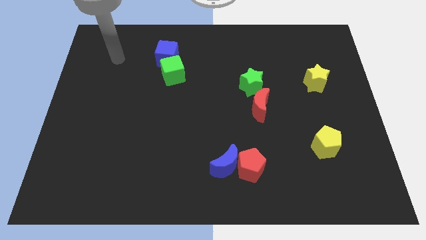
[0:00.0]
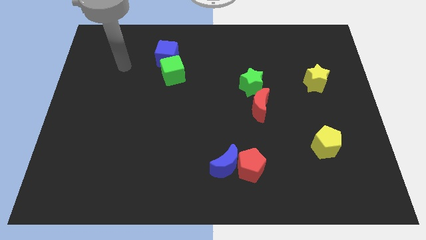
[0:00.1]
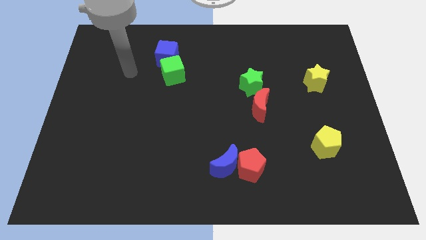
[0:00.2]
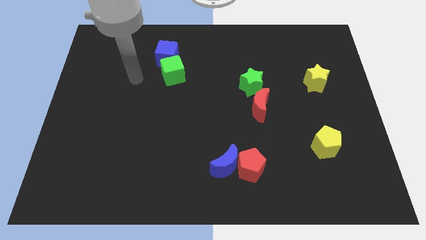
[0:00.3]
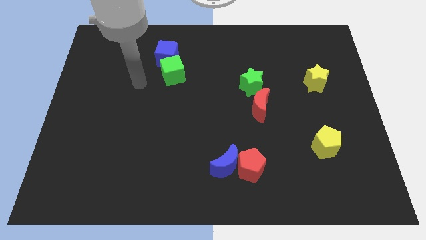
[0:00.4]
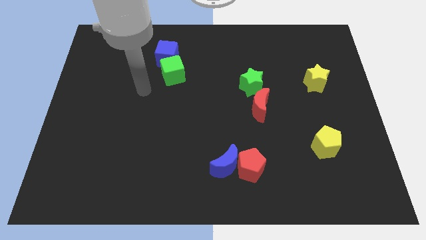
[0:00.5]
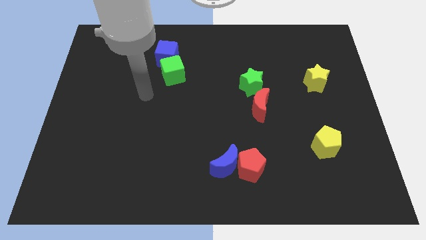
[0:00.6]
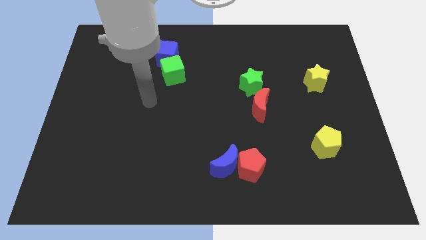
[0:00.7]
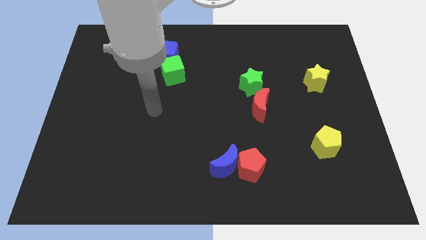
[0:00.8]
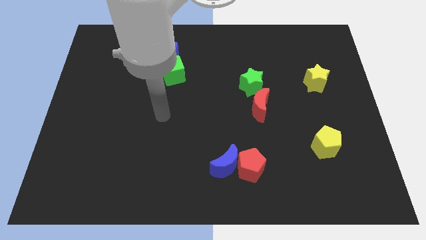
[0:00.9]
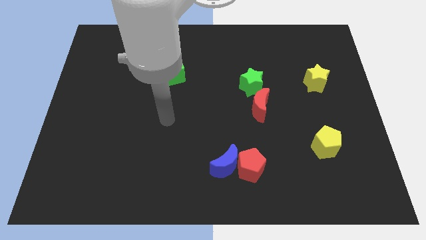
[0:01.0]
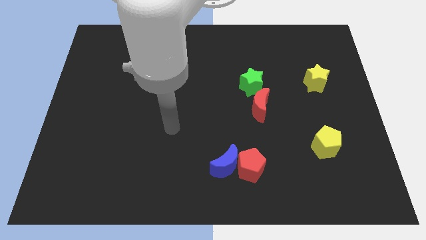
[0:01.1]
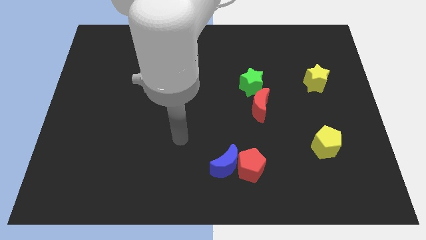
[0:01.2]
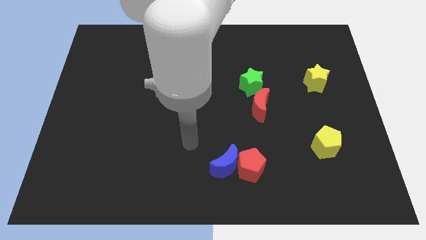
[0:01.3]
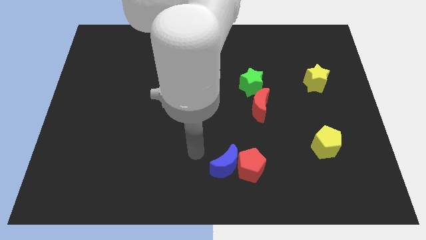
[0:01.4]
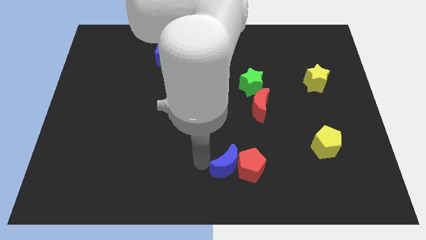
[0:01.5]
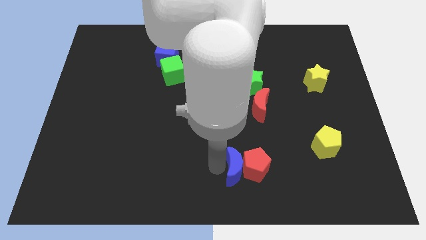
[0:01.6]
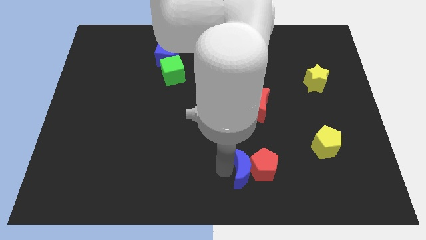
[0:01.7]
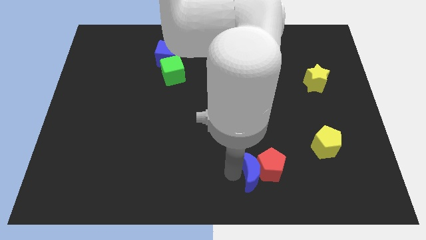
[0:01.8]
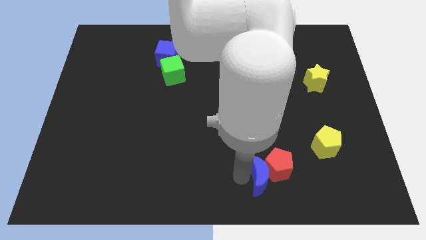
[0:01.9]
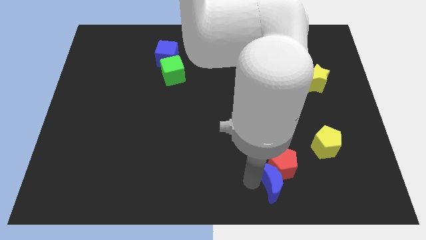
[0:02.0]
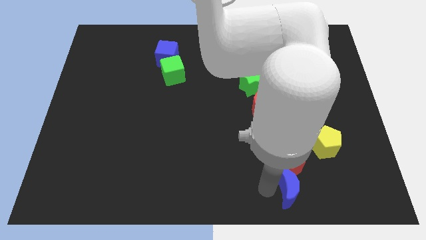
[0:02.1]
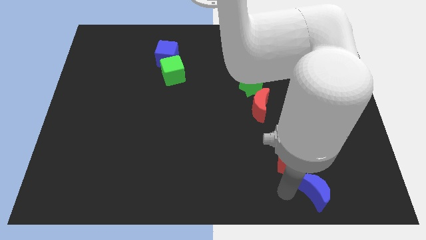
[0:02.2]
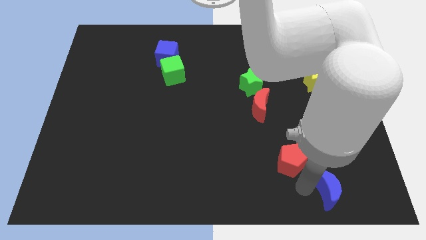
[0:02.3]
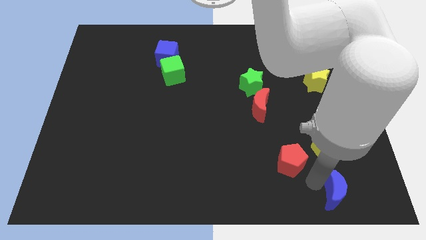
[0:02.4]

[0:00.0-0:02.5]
move the red pentagon away from the blue moon

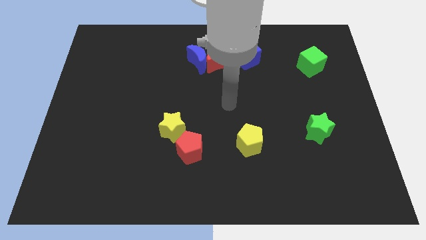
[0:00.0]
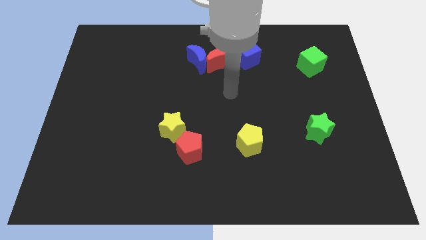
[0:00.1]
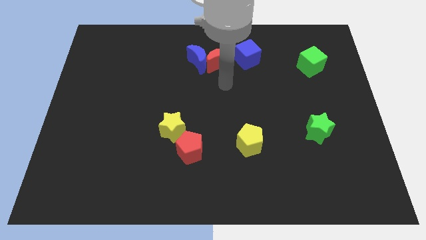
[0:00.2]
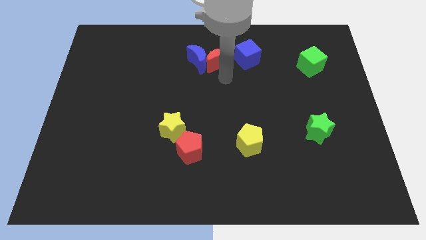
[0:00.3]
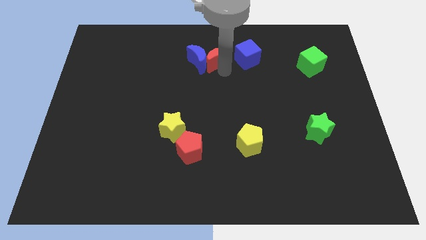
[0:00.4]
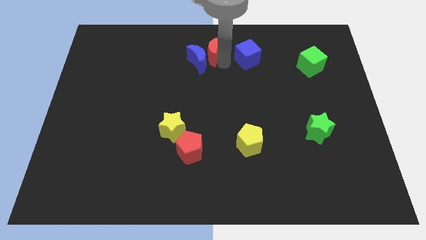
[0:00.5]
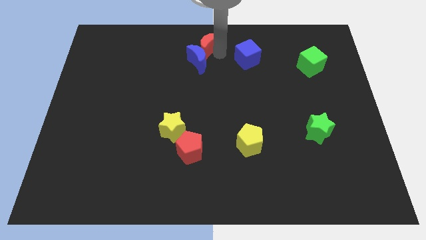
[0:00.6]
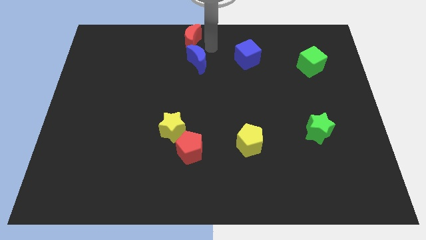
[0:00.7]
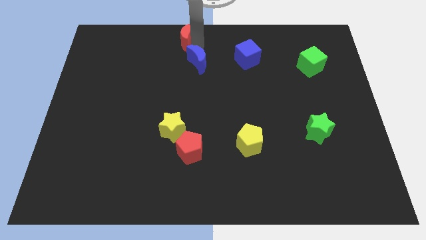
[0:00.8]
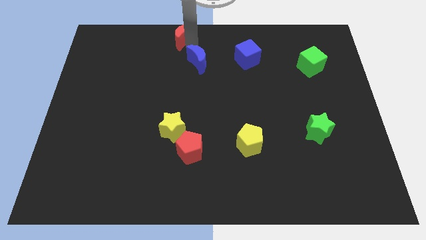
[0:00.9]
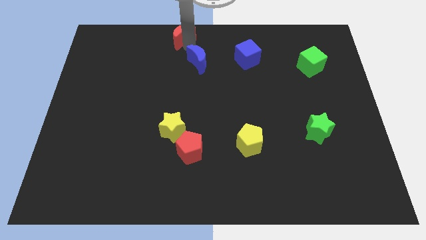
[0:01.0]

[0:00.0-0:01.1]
pull the blue moon apart from the red moon

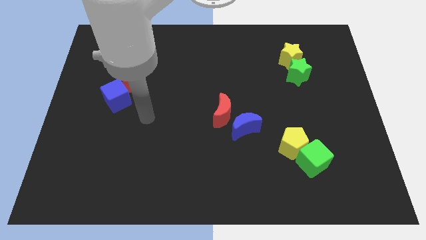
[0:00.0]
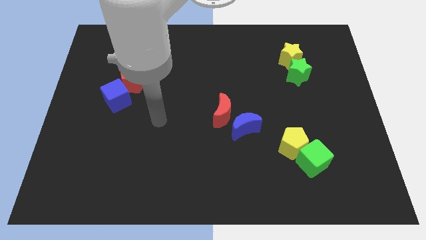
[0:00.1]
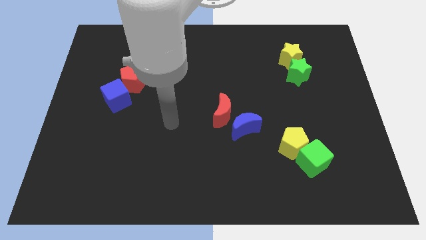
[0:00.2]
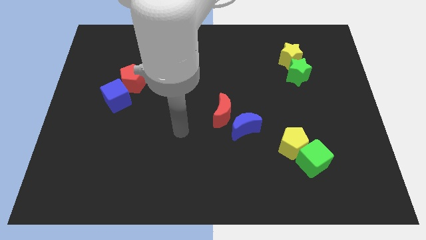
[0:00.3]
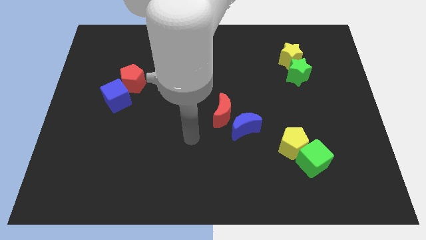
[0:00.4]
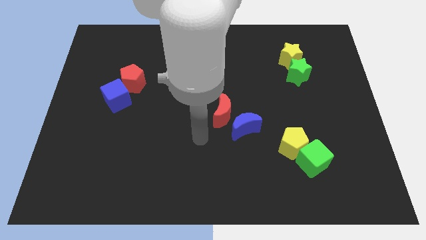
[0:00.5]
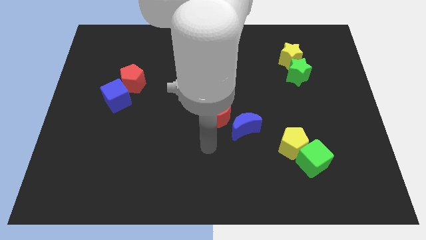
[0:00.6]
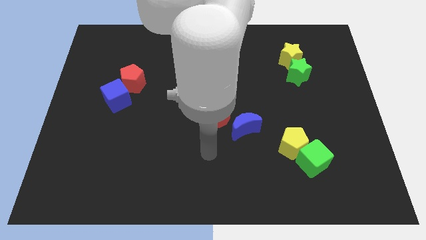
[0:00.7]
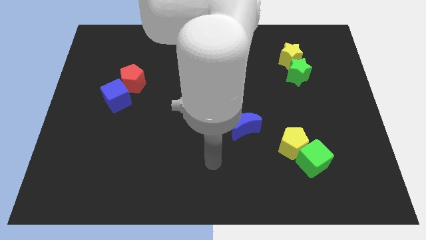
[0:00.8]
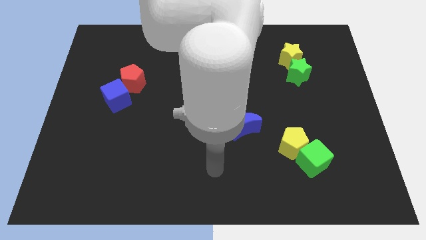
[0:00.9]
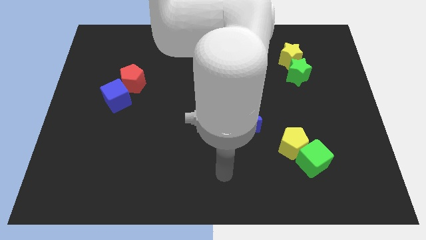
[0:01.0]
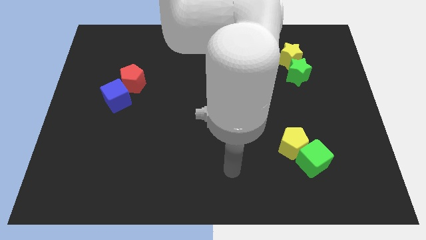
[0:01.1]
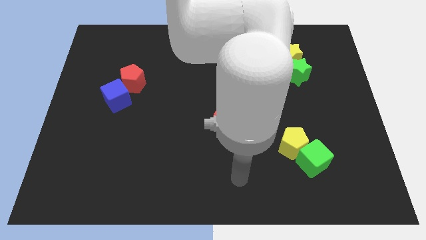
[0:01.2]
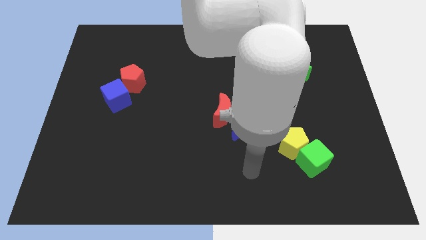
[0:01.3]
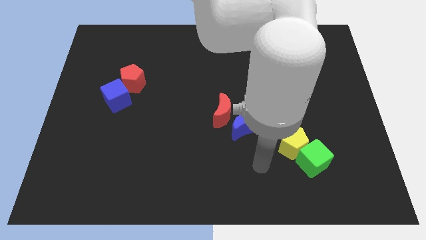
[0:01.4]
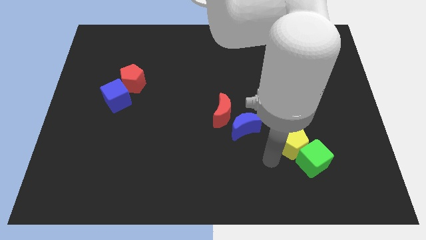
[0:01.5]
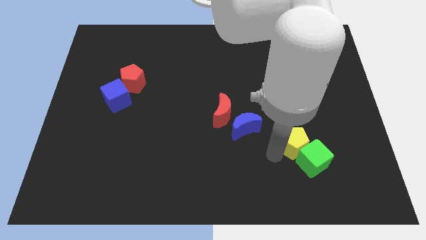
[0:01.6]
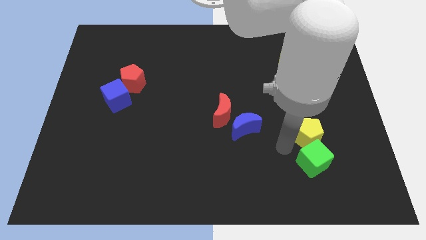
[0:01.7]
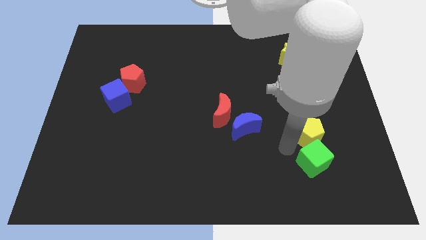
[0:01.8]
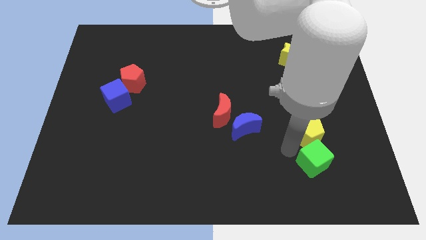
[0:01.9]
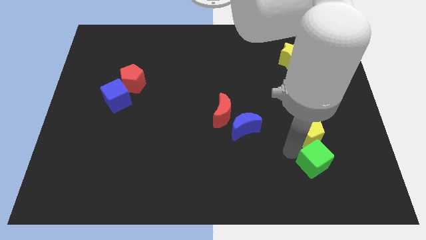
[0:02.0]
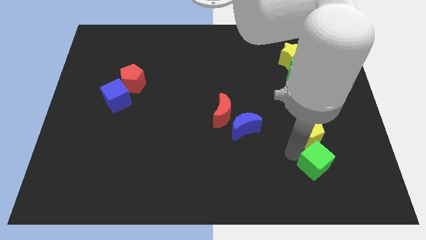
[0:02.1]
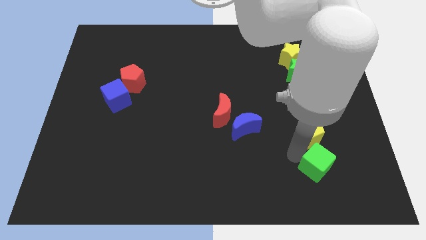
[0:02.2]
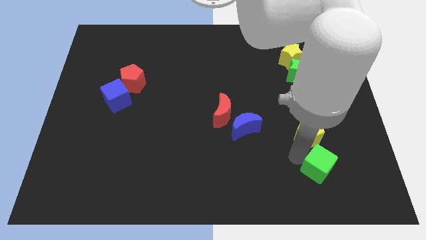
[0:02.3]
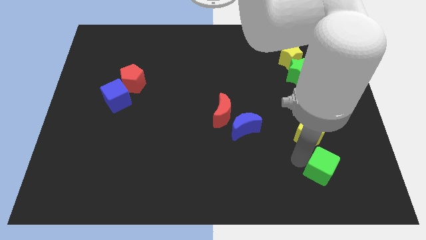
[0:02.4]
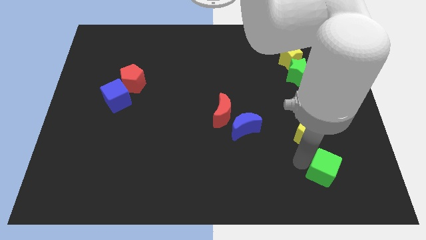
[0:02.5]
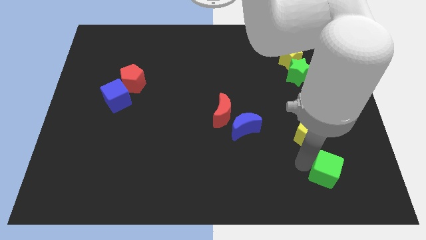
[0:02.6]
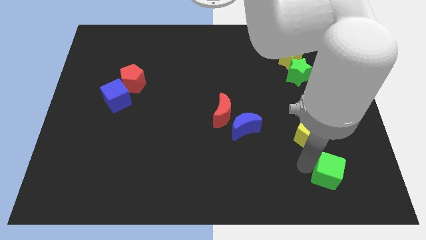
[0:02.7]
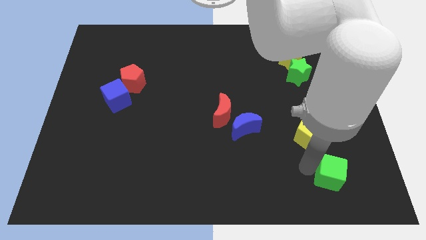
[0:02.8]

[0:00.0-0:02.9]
pull the green cube apart from the yellow pentagon

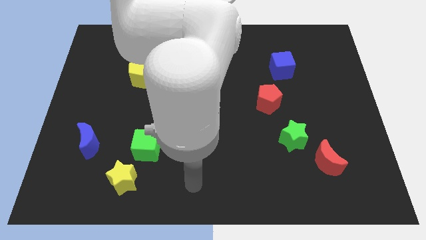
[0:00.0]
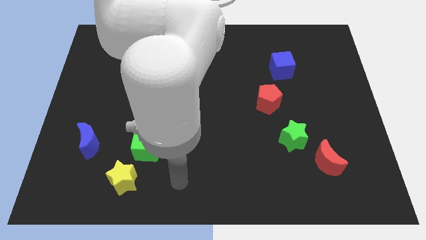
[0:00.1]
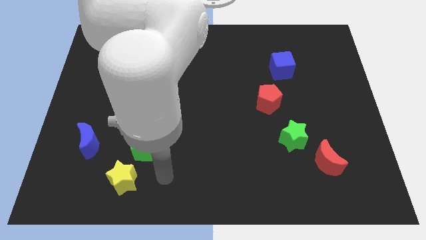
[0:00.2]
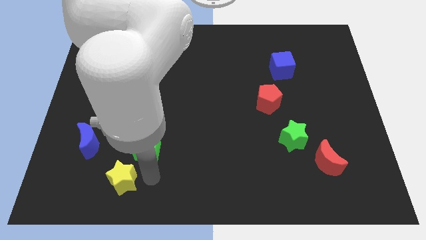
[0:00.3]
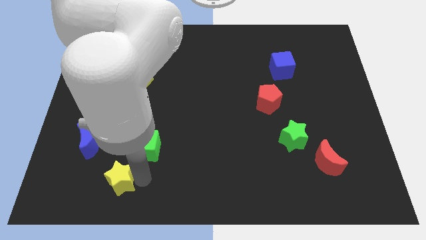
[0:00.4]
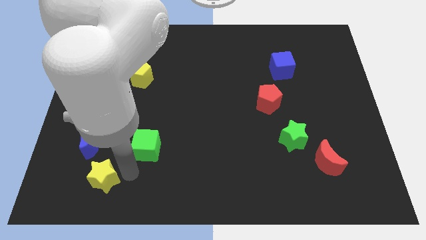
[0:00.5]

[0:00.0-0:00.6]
move the green cube away from the yellow star

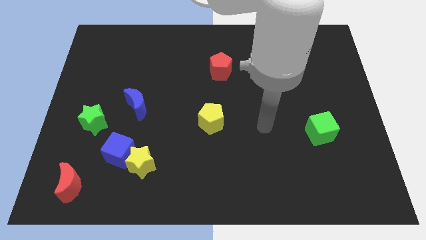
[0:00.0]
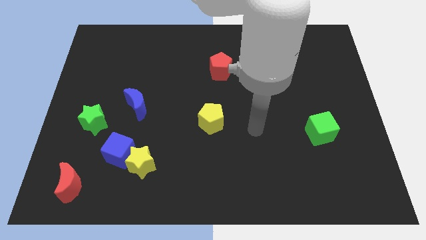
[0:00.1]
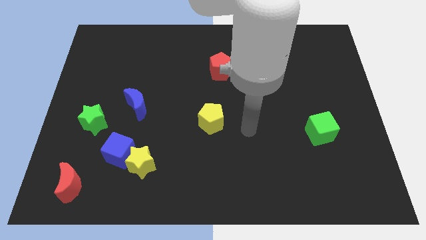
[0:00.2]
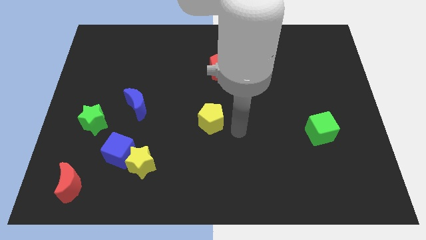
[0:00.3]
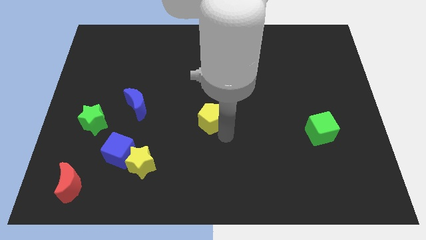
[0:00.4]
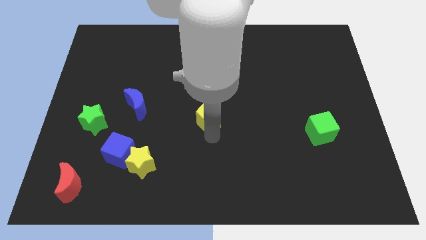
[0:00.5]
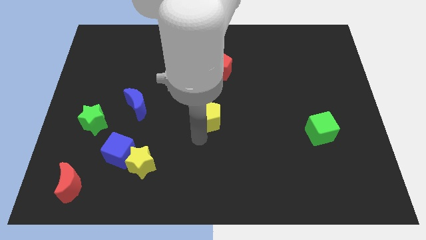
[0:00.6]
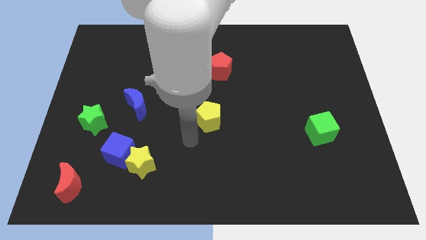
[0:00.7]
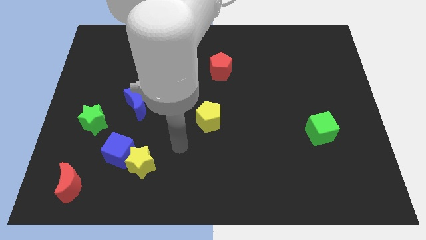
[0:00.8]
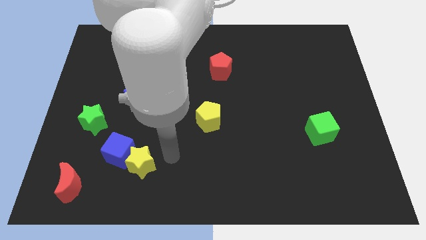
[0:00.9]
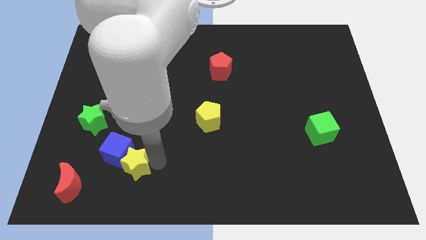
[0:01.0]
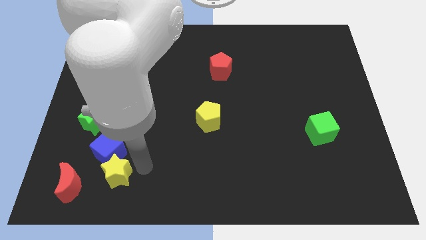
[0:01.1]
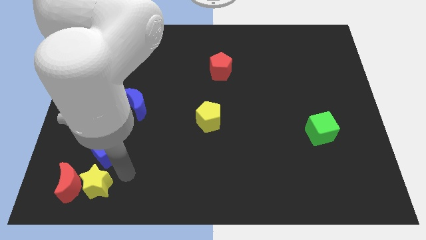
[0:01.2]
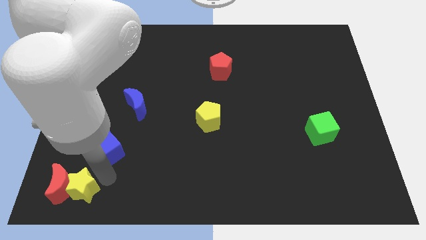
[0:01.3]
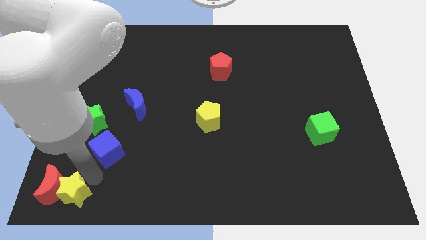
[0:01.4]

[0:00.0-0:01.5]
move the blue cube away from the yellow star

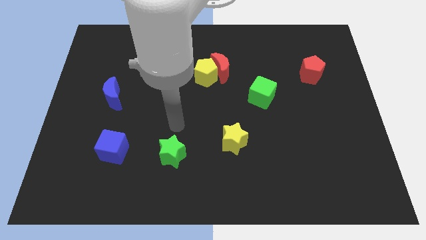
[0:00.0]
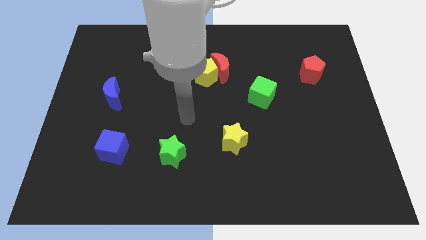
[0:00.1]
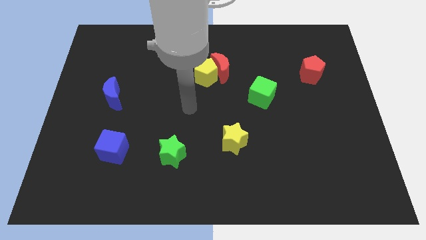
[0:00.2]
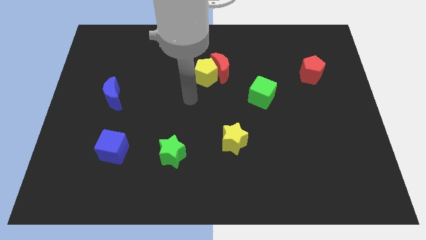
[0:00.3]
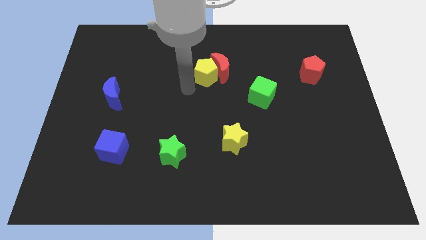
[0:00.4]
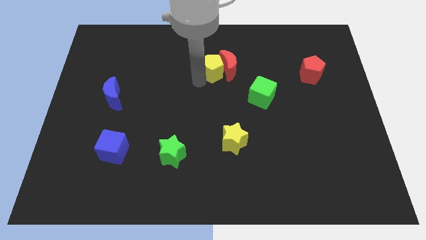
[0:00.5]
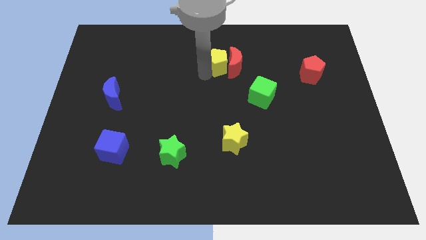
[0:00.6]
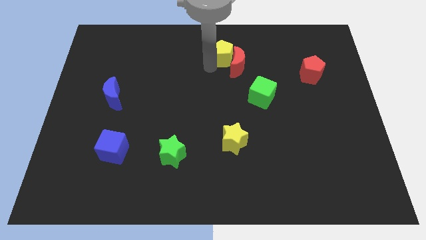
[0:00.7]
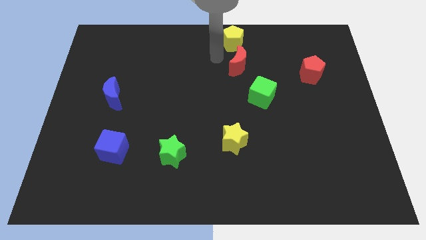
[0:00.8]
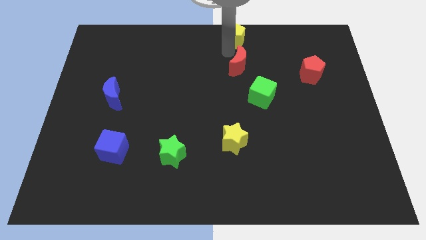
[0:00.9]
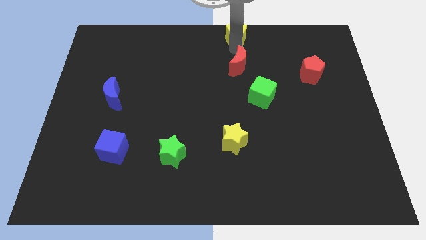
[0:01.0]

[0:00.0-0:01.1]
pull the red moon apart from the yellow pentagon
